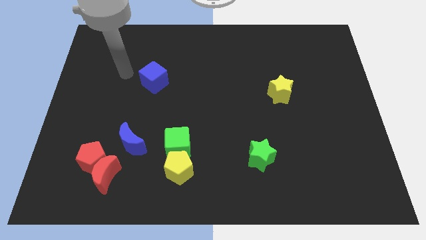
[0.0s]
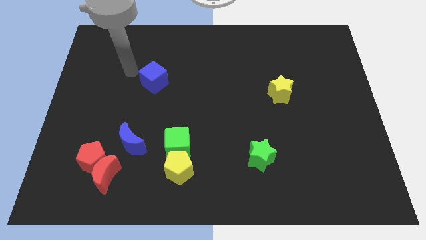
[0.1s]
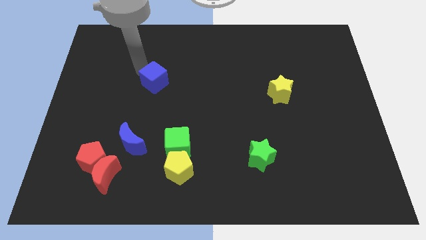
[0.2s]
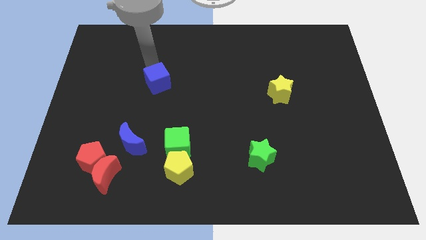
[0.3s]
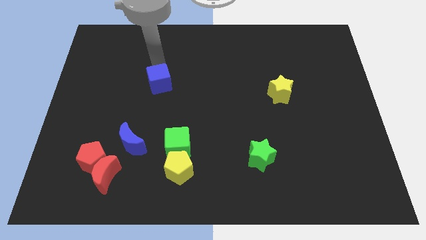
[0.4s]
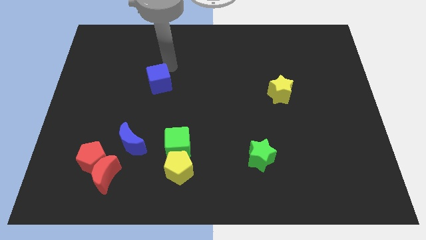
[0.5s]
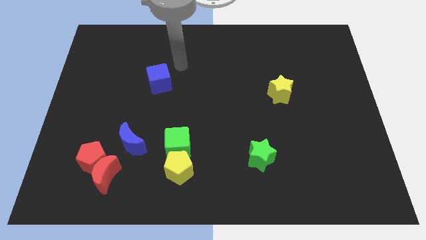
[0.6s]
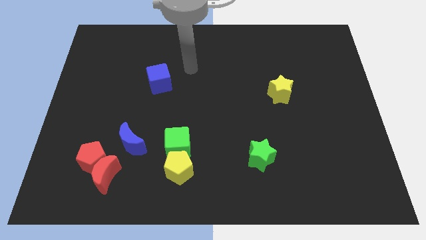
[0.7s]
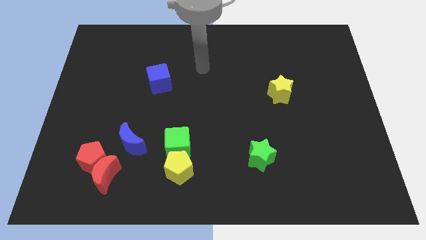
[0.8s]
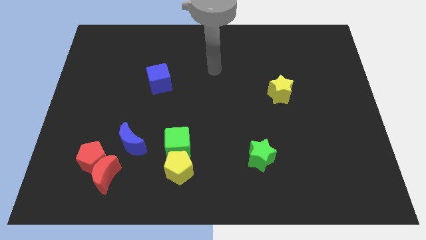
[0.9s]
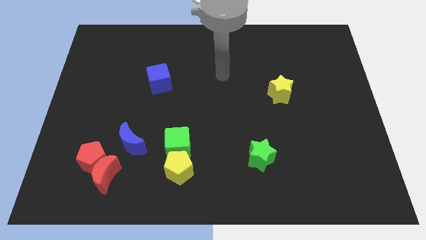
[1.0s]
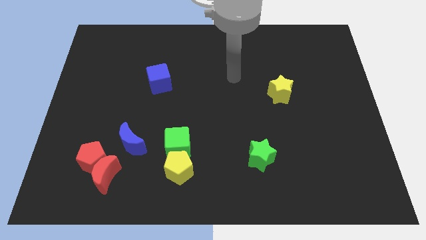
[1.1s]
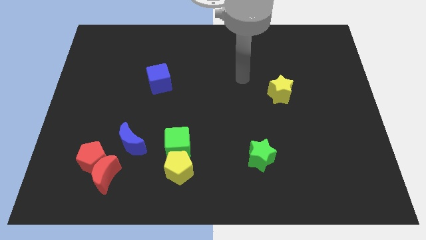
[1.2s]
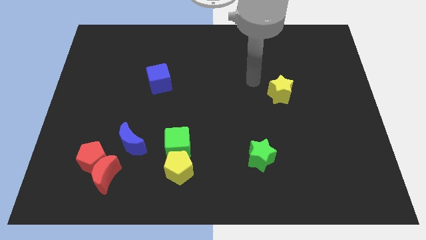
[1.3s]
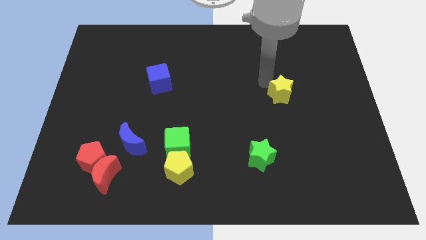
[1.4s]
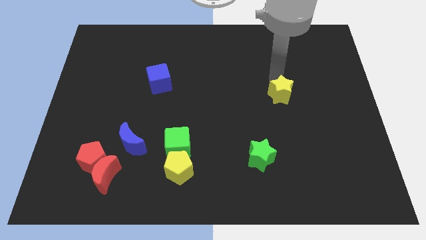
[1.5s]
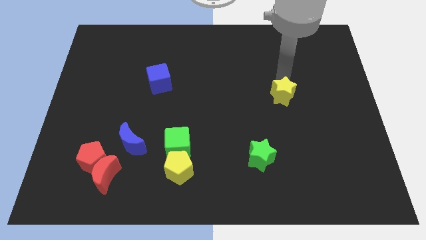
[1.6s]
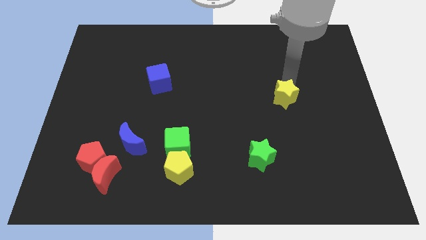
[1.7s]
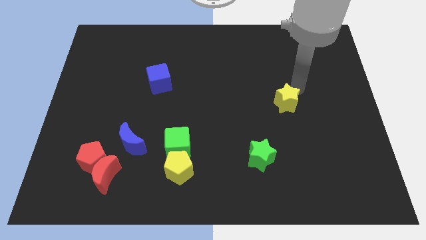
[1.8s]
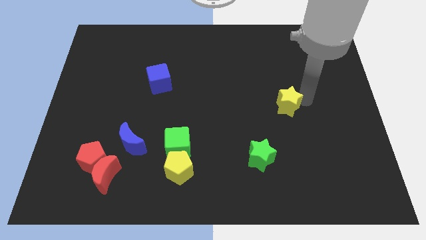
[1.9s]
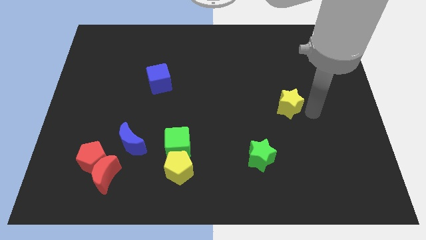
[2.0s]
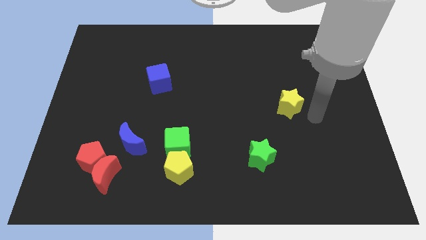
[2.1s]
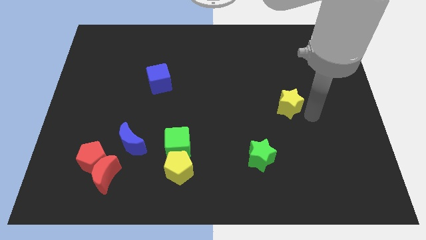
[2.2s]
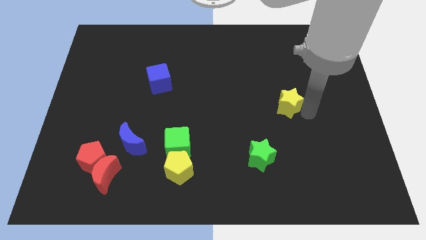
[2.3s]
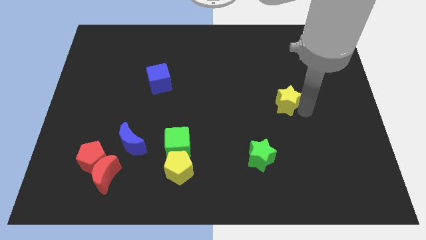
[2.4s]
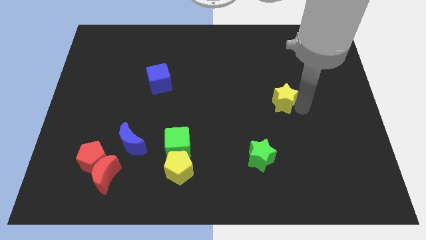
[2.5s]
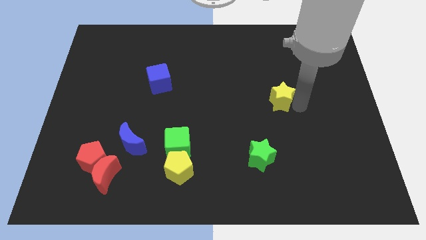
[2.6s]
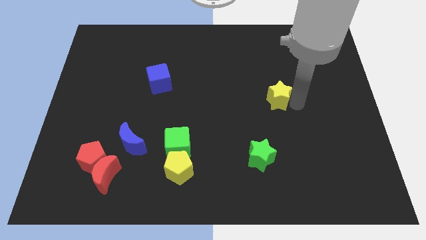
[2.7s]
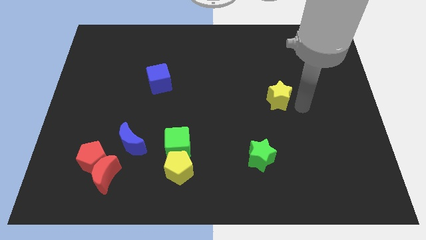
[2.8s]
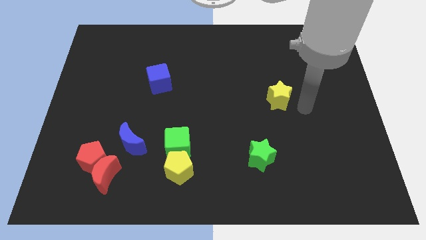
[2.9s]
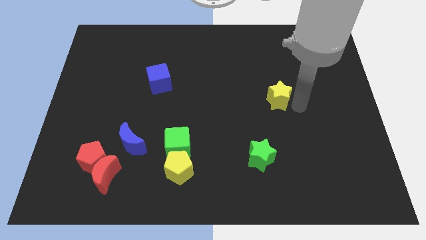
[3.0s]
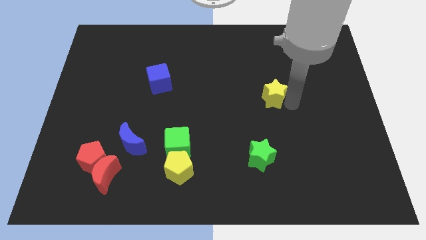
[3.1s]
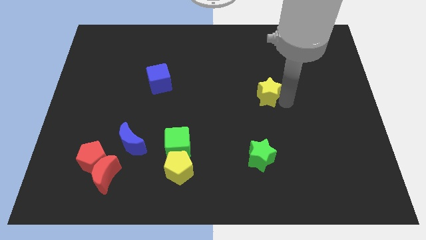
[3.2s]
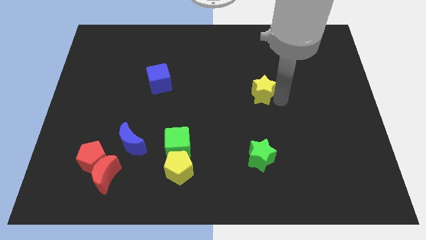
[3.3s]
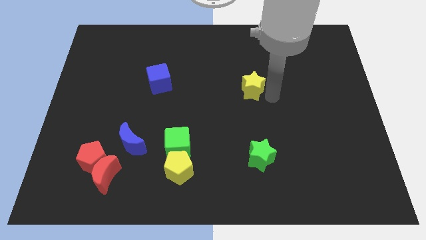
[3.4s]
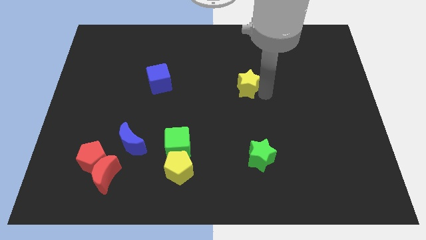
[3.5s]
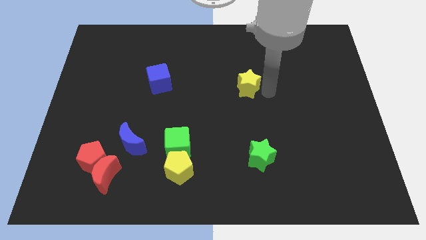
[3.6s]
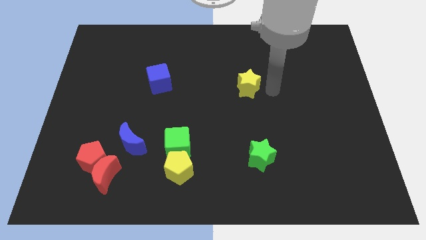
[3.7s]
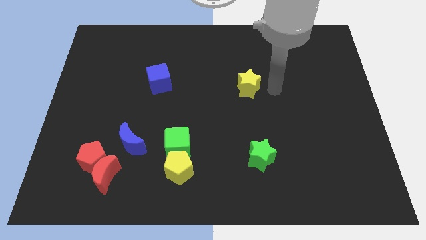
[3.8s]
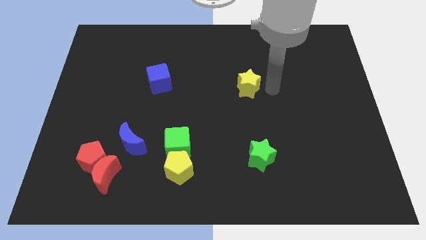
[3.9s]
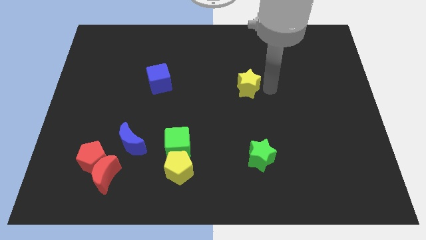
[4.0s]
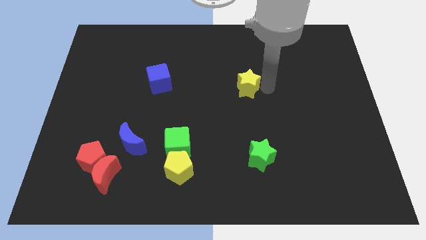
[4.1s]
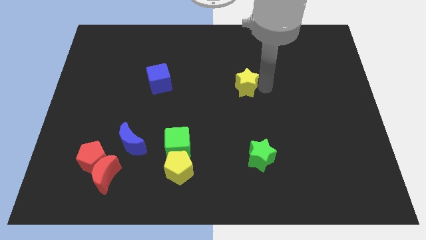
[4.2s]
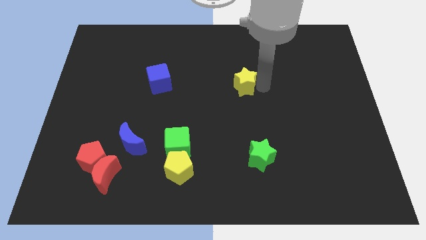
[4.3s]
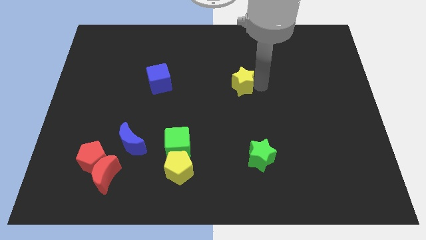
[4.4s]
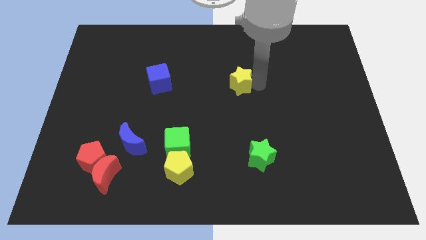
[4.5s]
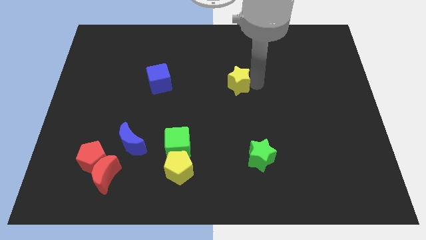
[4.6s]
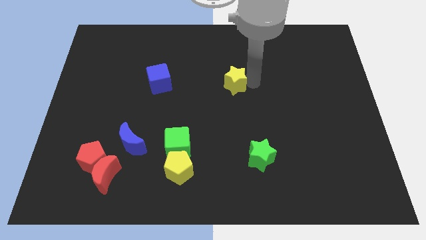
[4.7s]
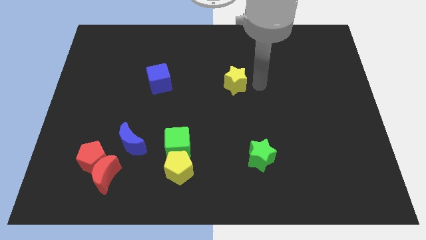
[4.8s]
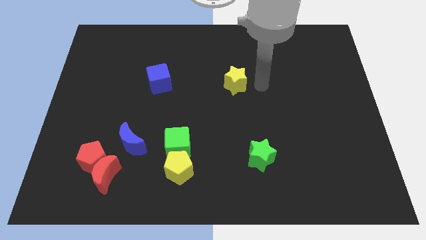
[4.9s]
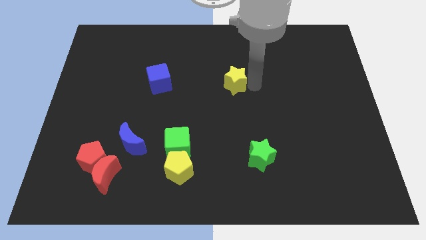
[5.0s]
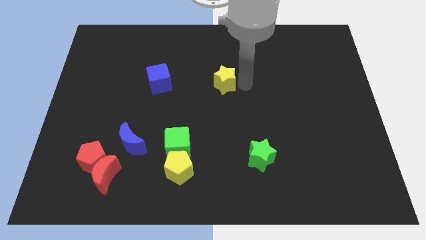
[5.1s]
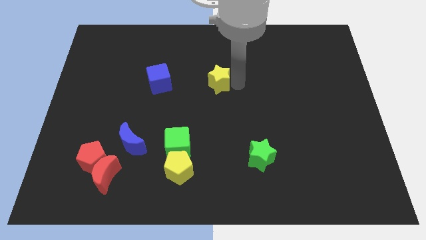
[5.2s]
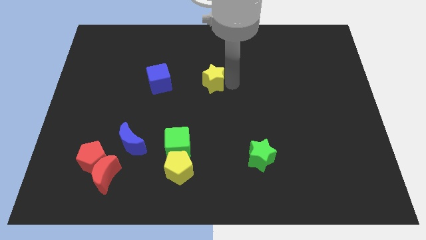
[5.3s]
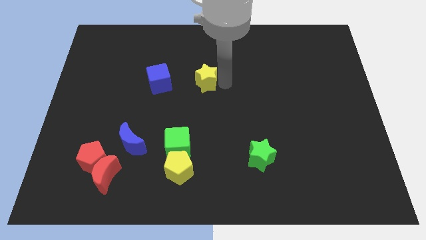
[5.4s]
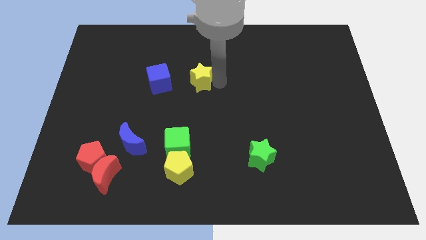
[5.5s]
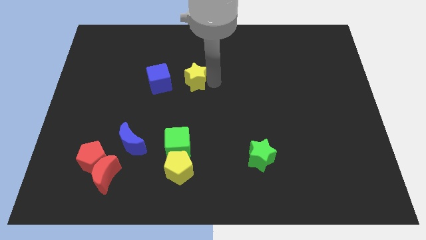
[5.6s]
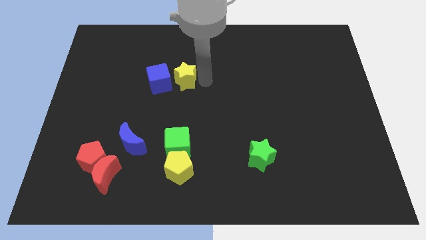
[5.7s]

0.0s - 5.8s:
put the yellow star close to the blue cube
